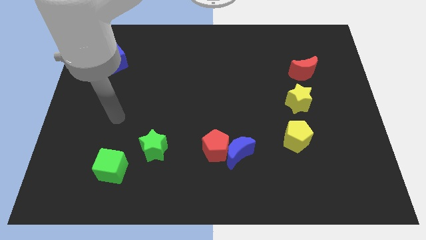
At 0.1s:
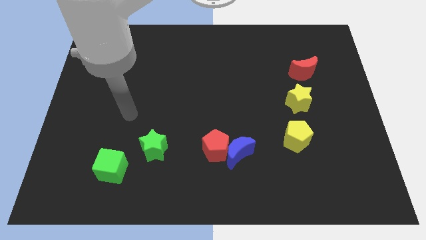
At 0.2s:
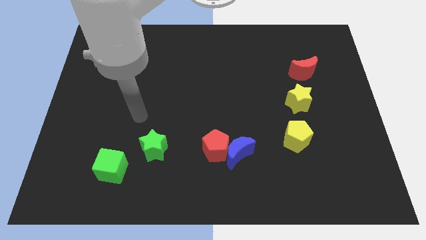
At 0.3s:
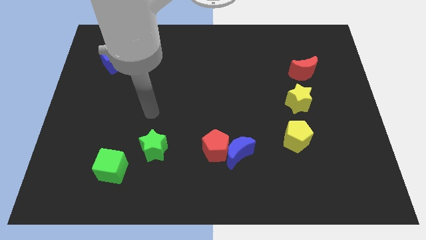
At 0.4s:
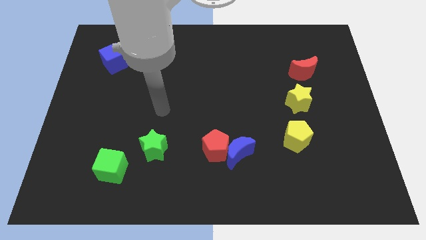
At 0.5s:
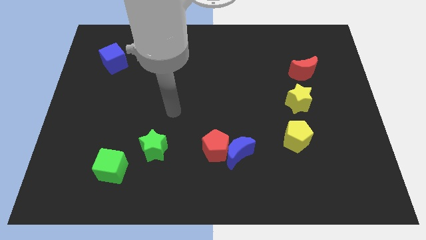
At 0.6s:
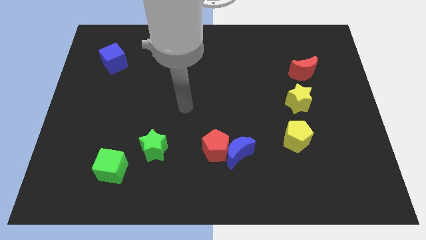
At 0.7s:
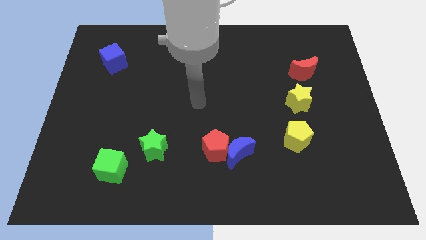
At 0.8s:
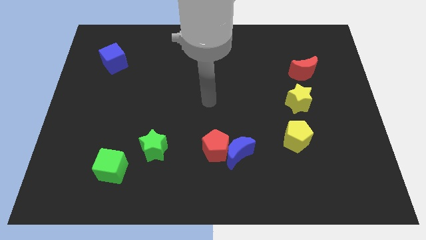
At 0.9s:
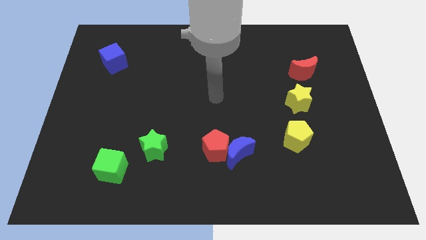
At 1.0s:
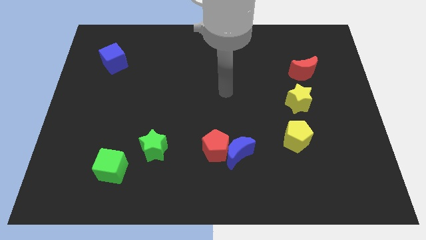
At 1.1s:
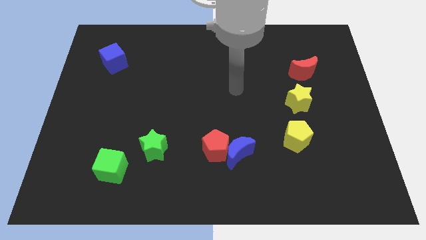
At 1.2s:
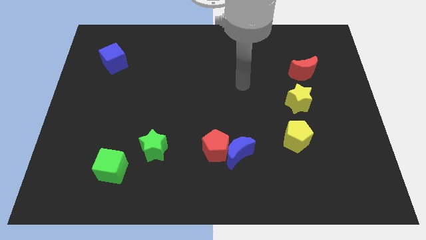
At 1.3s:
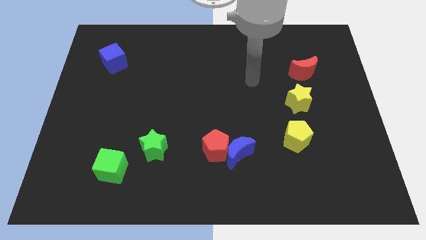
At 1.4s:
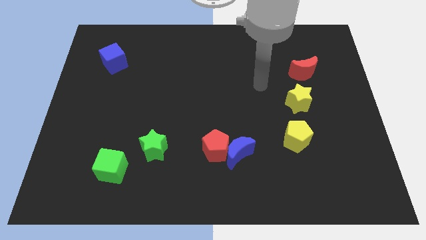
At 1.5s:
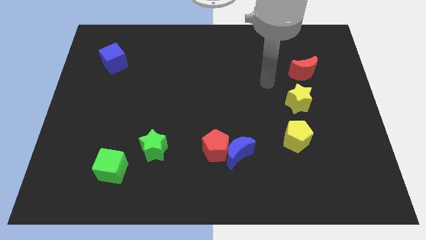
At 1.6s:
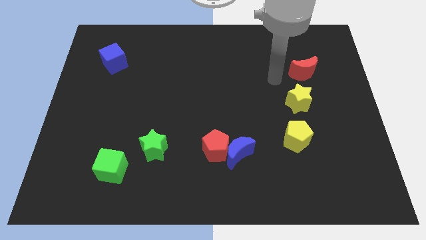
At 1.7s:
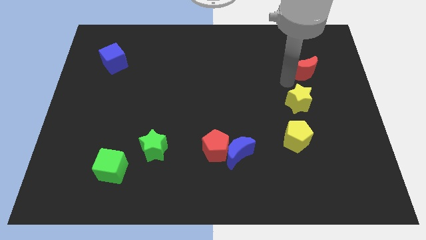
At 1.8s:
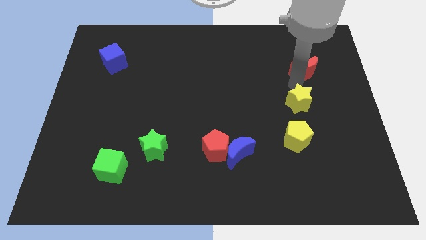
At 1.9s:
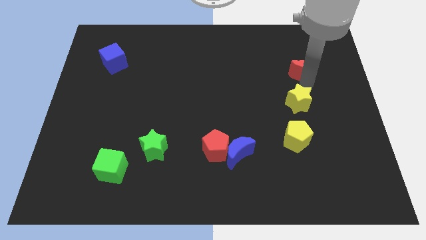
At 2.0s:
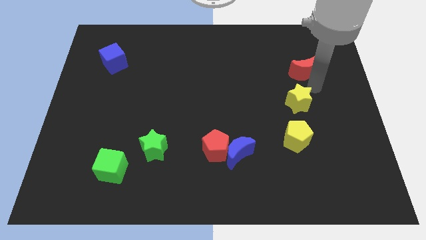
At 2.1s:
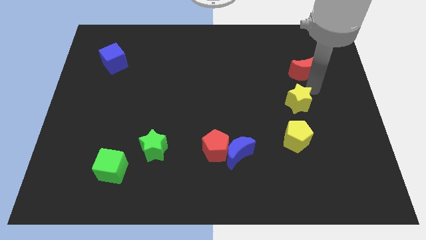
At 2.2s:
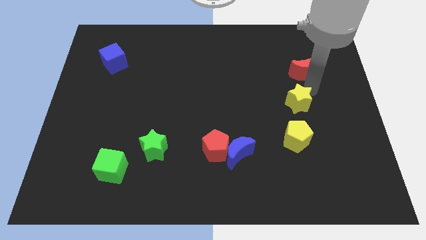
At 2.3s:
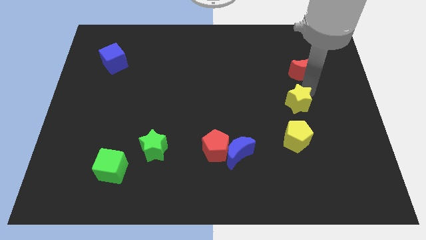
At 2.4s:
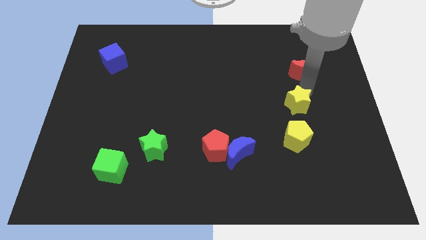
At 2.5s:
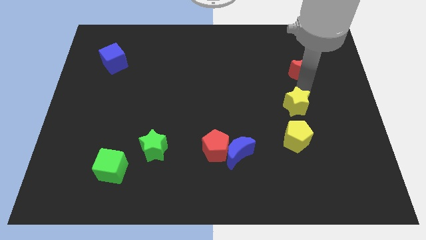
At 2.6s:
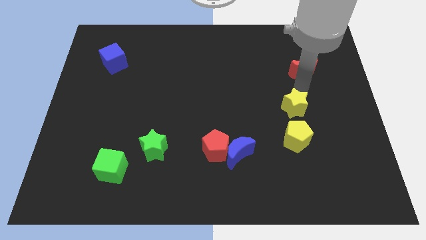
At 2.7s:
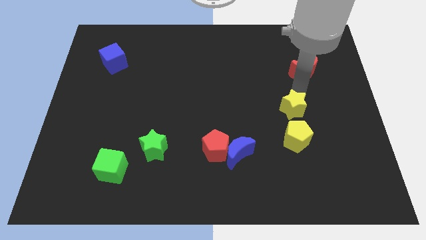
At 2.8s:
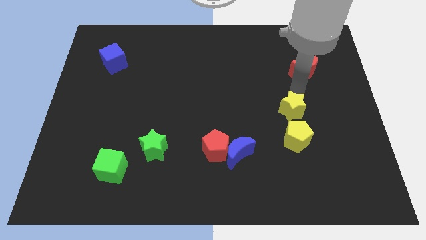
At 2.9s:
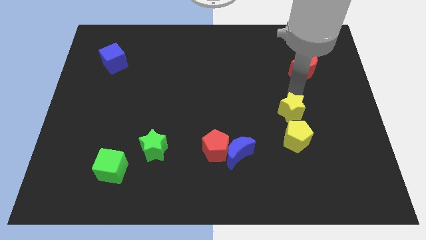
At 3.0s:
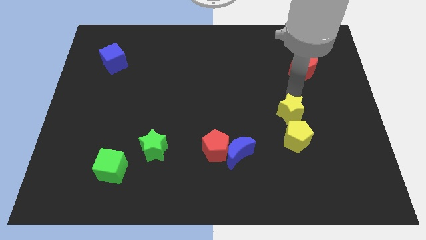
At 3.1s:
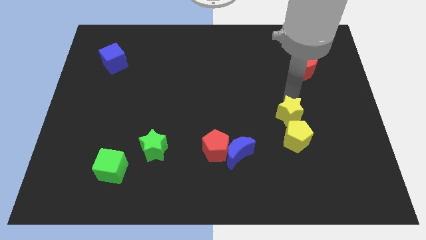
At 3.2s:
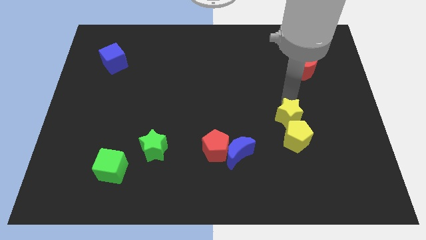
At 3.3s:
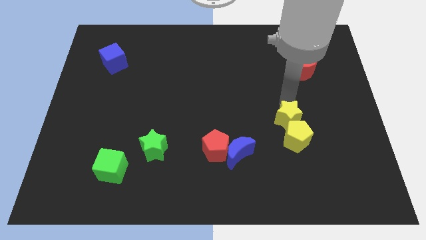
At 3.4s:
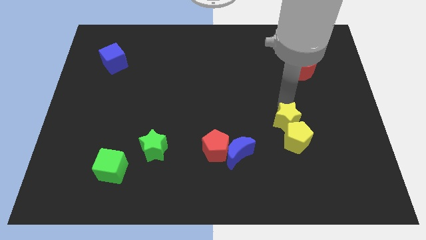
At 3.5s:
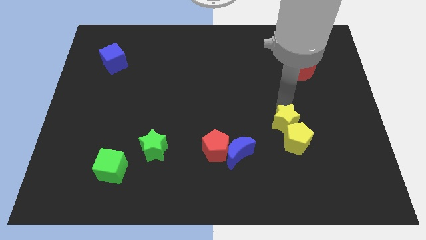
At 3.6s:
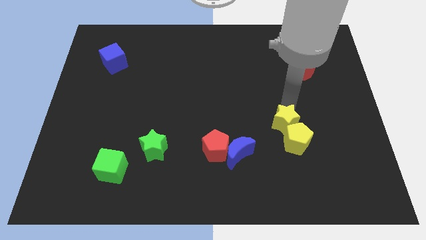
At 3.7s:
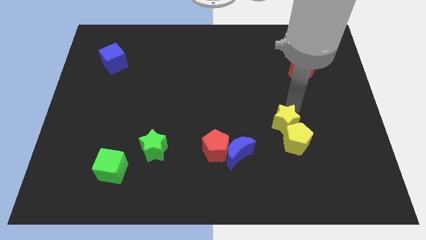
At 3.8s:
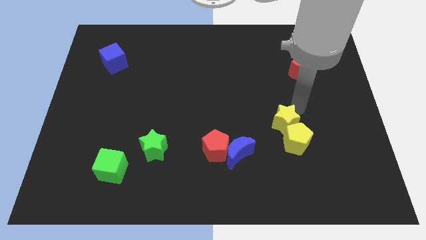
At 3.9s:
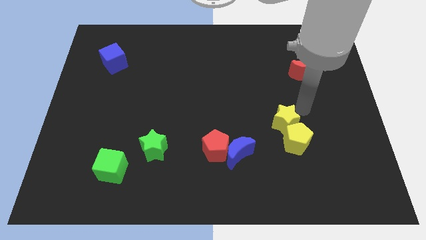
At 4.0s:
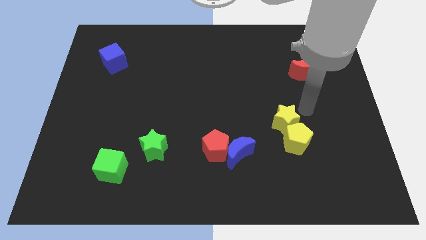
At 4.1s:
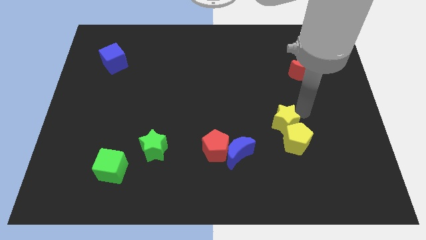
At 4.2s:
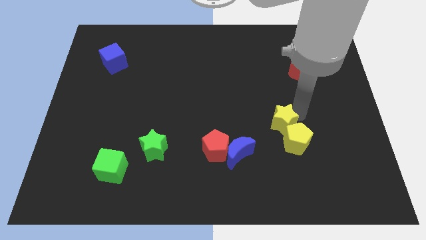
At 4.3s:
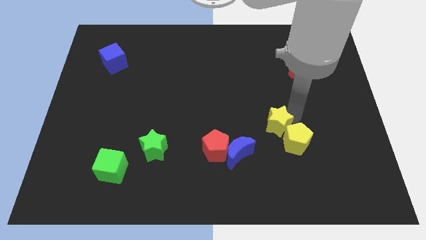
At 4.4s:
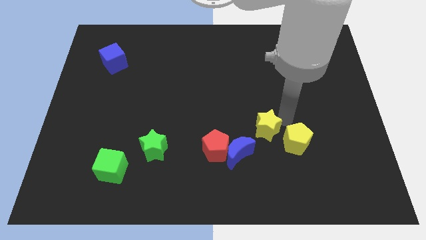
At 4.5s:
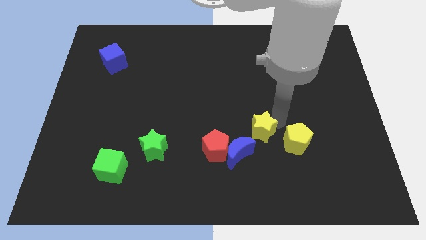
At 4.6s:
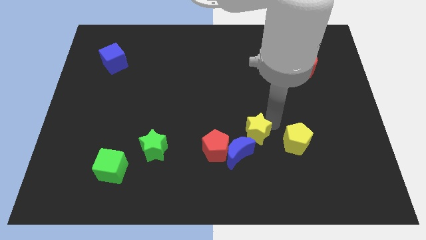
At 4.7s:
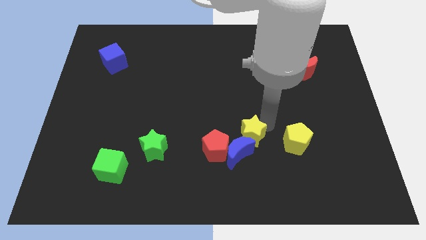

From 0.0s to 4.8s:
push the yellow star close to the blue moon

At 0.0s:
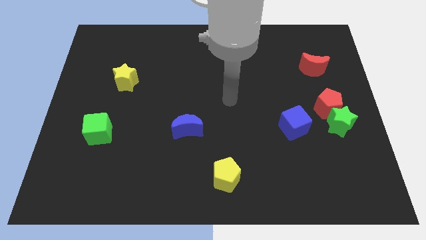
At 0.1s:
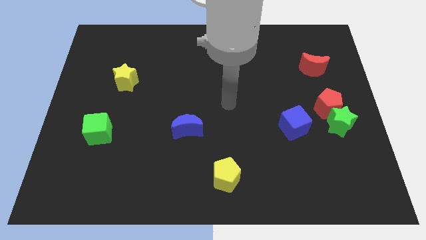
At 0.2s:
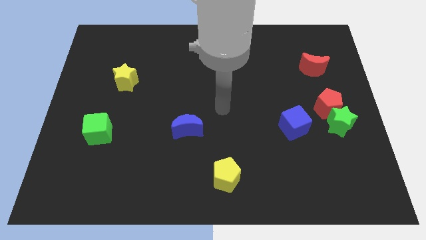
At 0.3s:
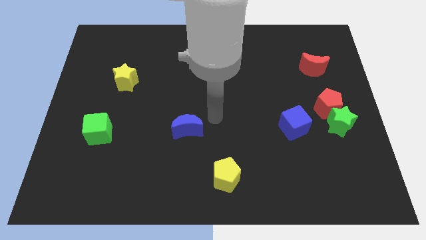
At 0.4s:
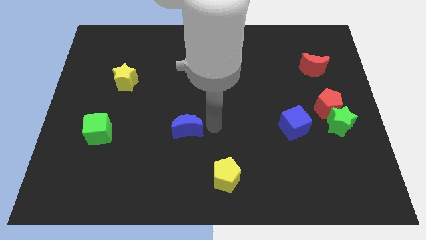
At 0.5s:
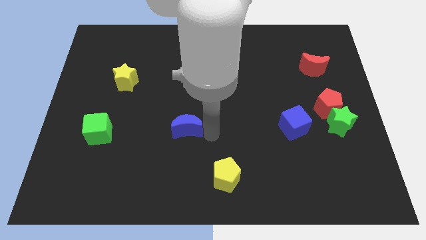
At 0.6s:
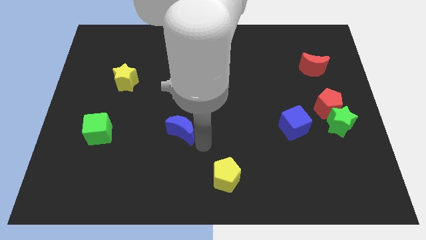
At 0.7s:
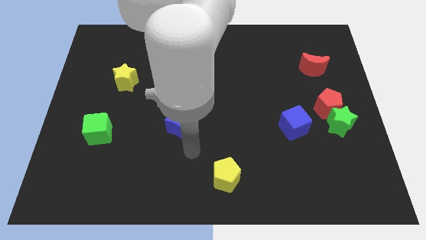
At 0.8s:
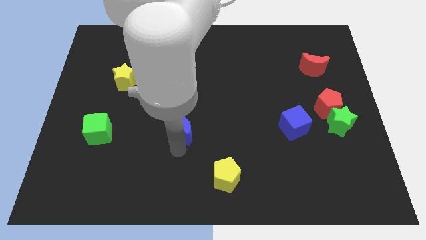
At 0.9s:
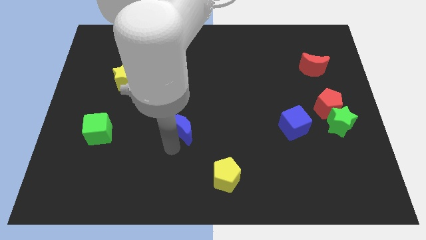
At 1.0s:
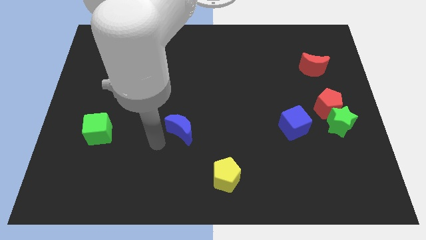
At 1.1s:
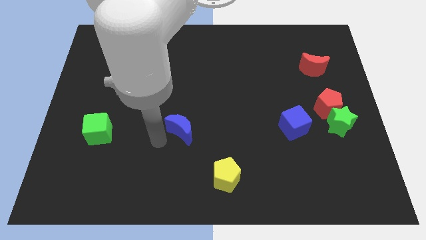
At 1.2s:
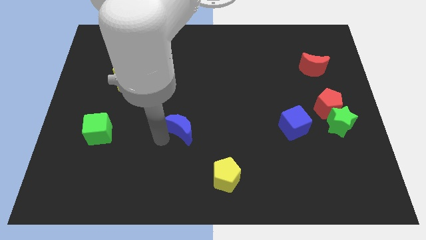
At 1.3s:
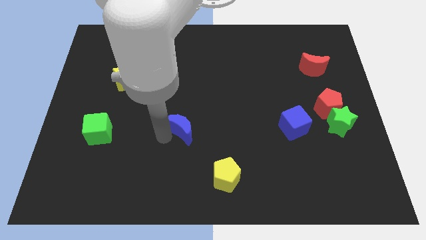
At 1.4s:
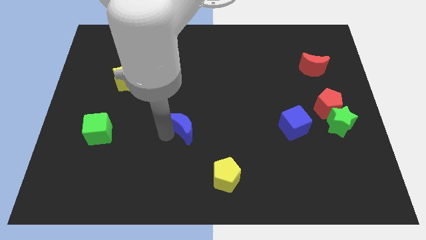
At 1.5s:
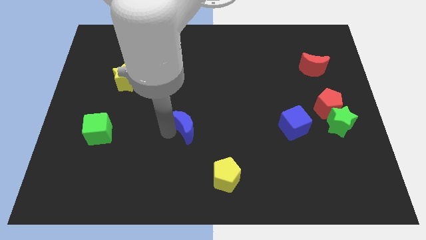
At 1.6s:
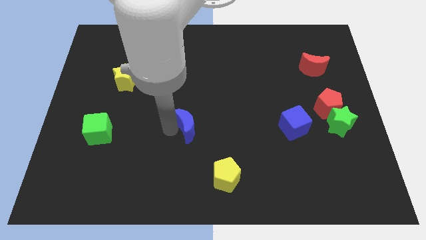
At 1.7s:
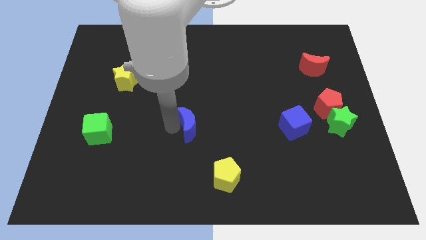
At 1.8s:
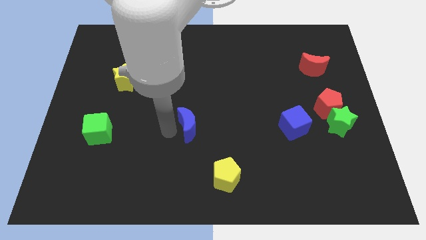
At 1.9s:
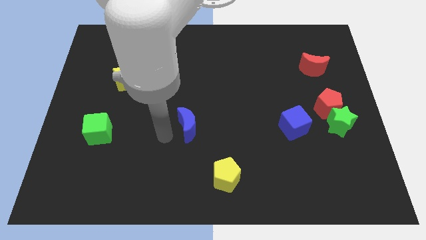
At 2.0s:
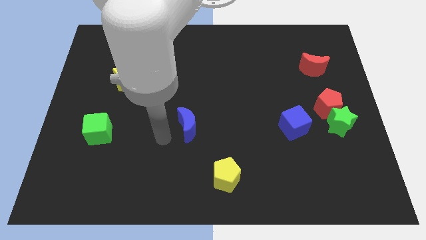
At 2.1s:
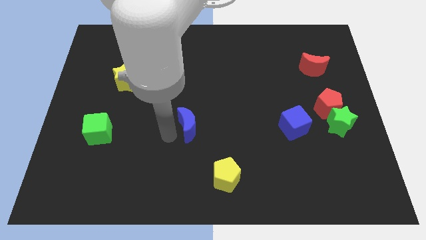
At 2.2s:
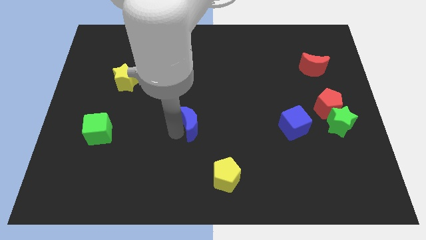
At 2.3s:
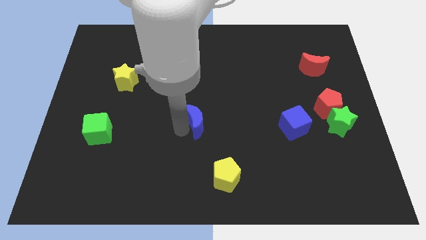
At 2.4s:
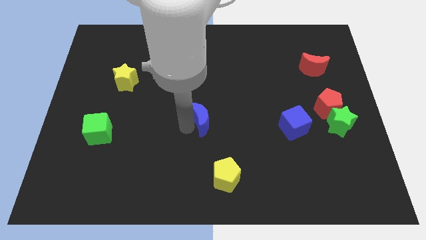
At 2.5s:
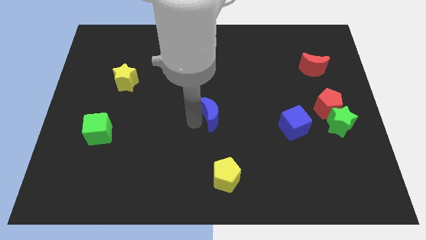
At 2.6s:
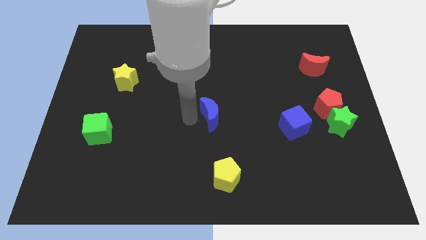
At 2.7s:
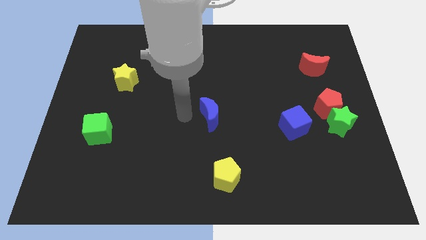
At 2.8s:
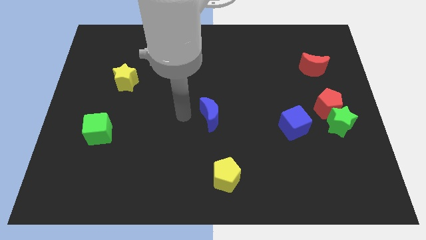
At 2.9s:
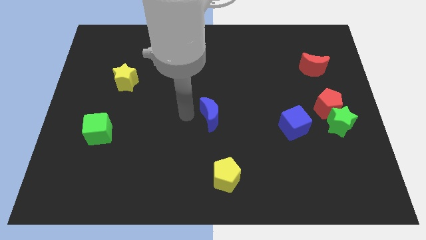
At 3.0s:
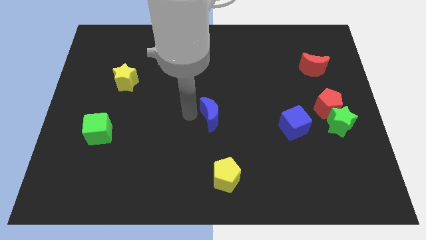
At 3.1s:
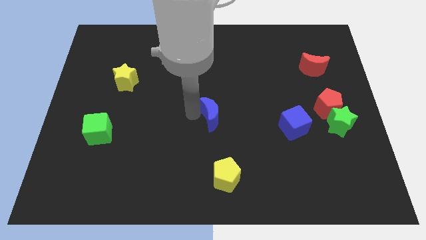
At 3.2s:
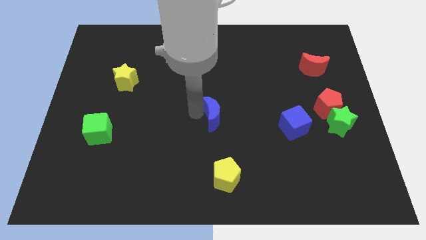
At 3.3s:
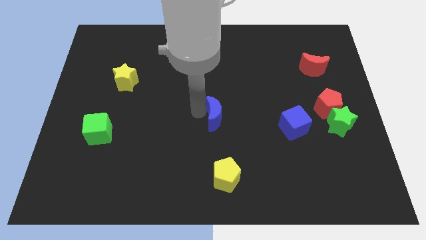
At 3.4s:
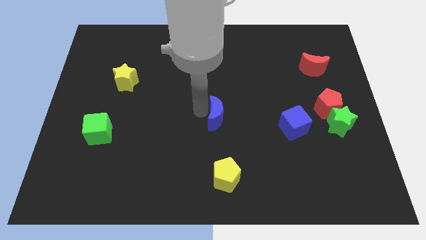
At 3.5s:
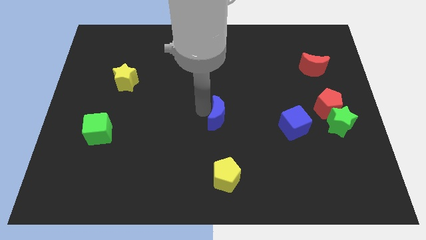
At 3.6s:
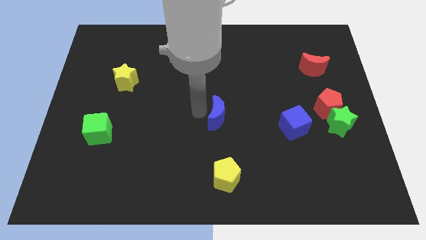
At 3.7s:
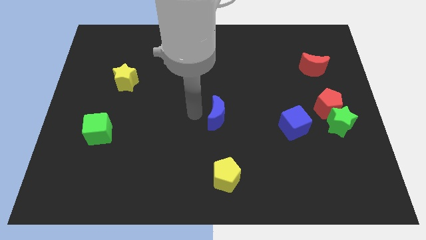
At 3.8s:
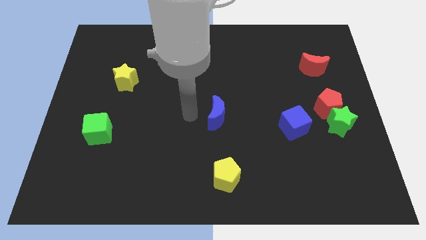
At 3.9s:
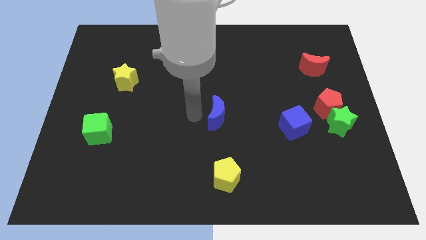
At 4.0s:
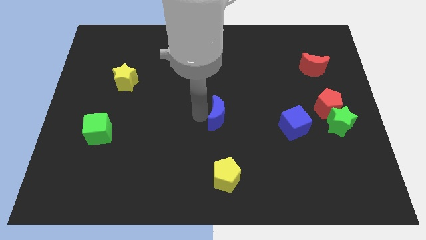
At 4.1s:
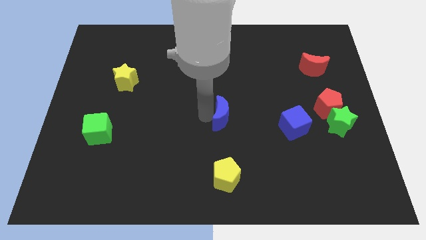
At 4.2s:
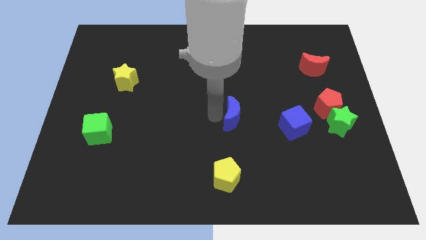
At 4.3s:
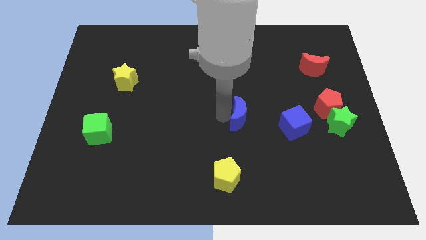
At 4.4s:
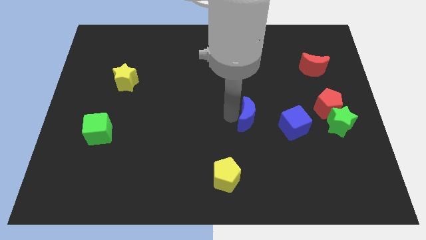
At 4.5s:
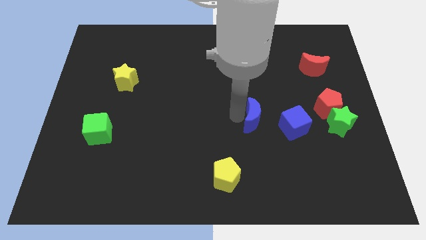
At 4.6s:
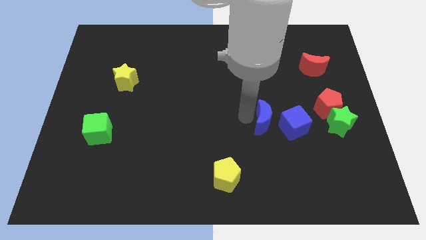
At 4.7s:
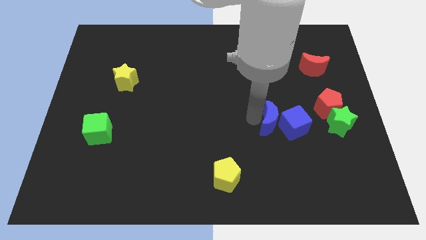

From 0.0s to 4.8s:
put the blue moon to the blue cube
